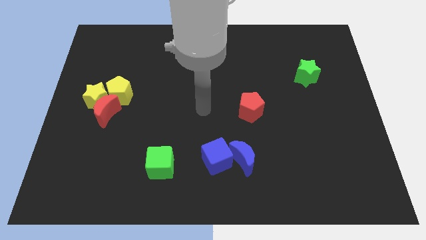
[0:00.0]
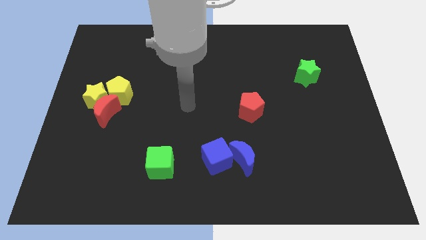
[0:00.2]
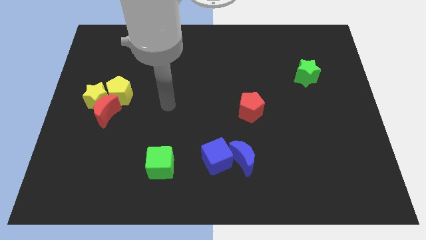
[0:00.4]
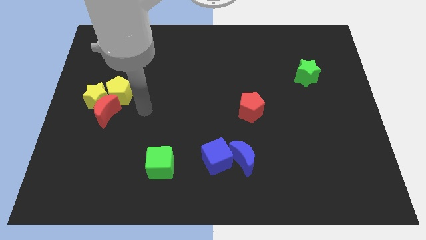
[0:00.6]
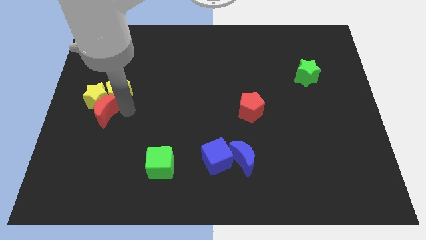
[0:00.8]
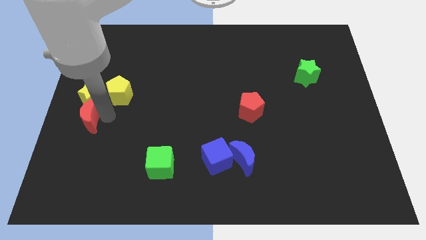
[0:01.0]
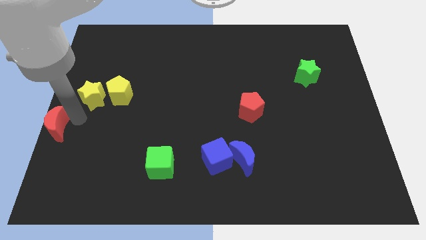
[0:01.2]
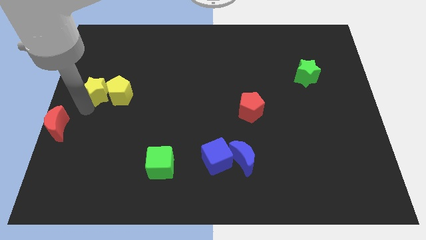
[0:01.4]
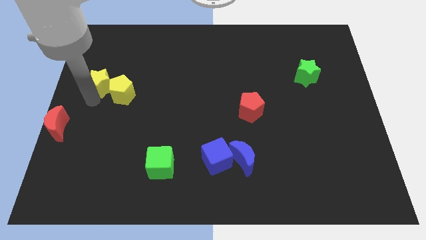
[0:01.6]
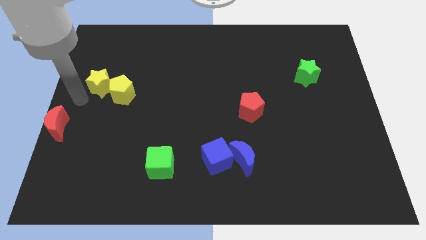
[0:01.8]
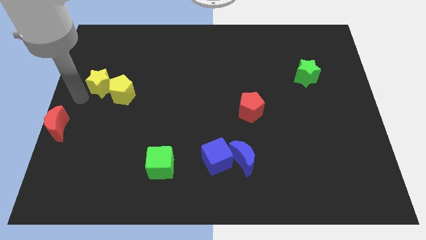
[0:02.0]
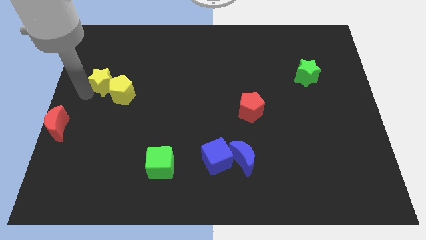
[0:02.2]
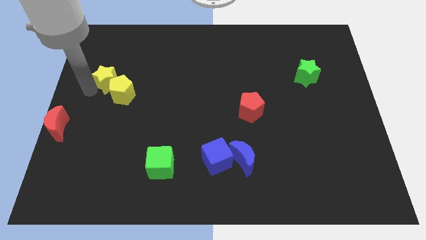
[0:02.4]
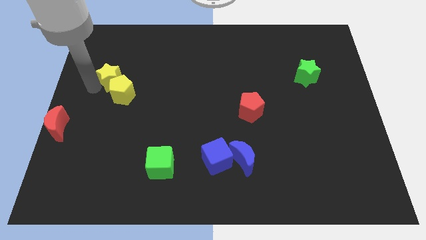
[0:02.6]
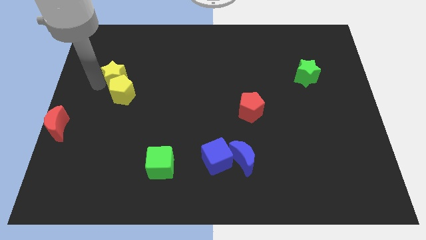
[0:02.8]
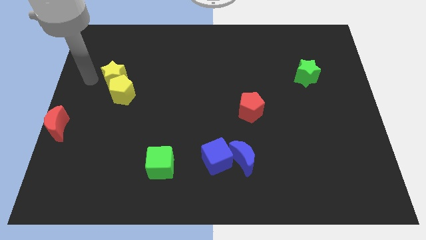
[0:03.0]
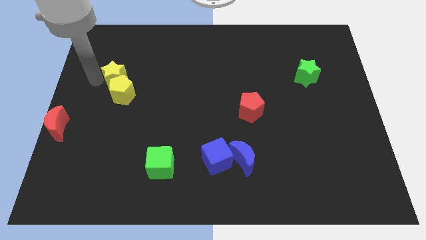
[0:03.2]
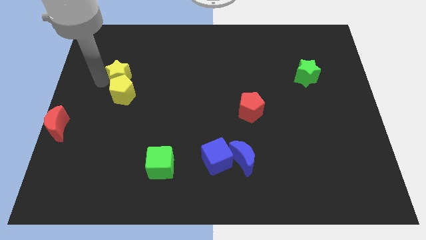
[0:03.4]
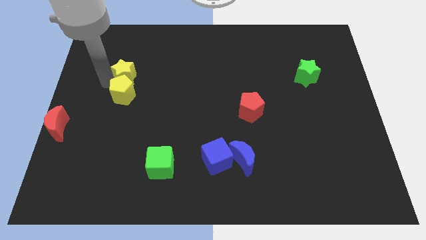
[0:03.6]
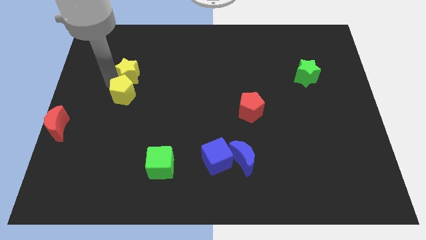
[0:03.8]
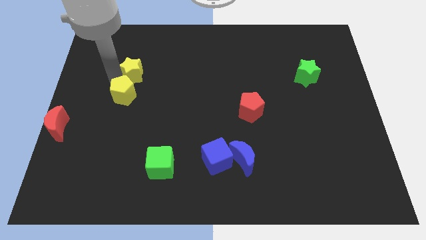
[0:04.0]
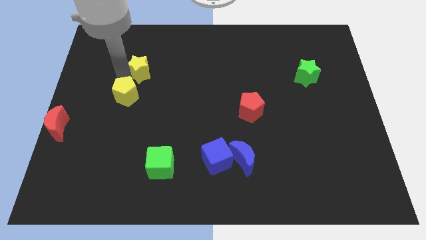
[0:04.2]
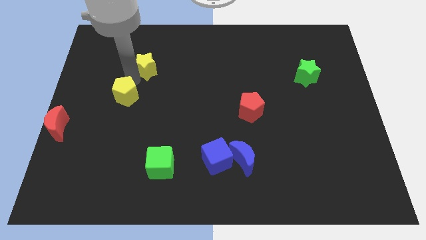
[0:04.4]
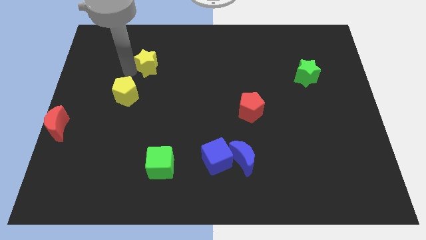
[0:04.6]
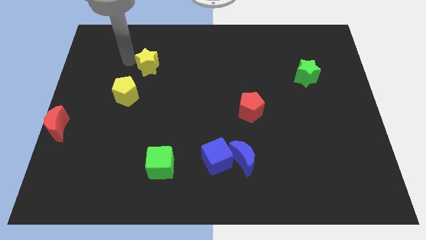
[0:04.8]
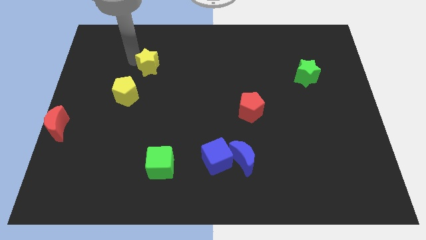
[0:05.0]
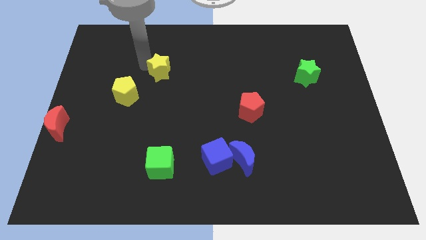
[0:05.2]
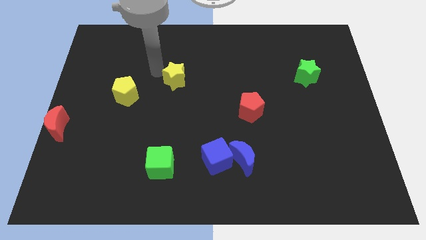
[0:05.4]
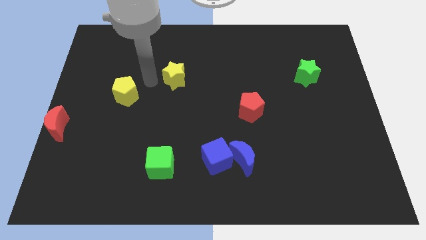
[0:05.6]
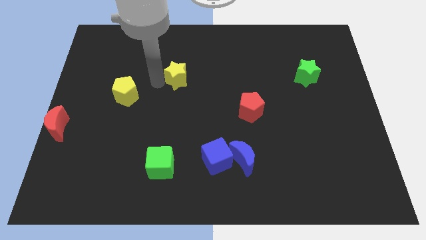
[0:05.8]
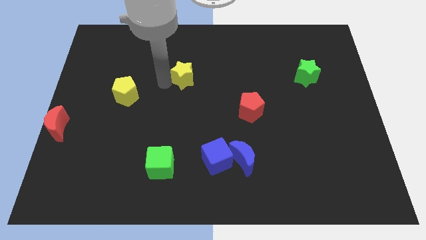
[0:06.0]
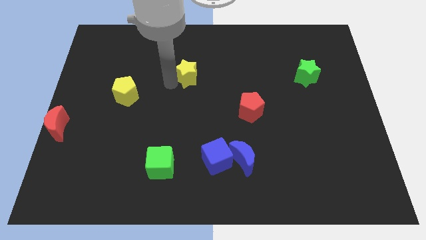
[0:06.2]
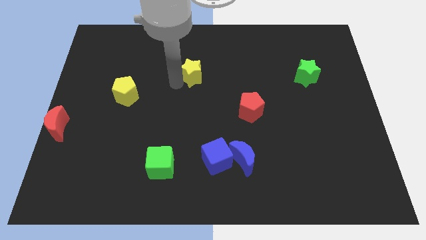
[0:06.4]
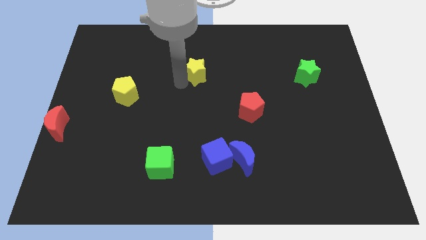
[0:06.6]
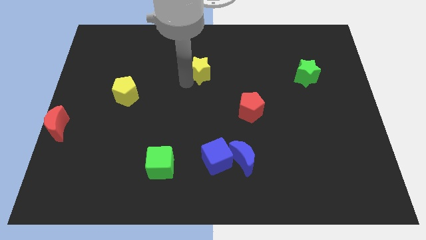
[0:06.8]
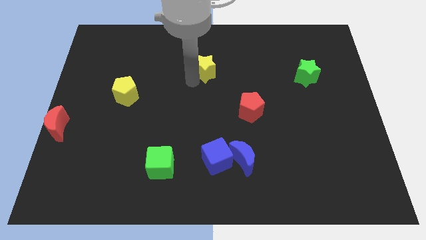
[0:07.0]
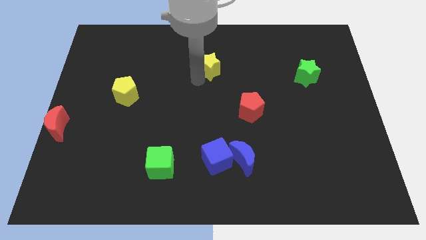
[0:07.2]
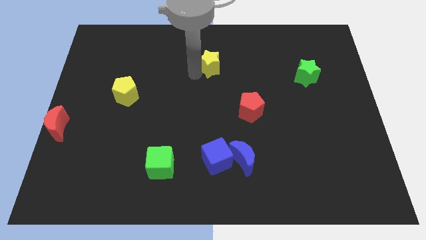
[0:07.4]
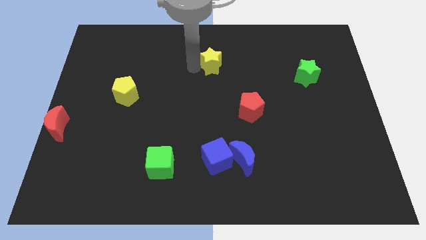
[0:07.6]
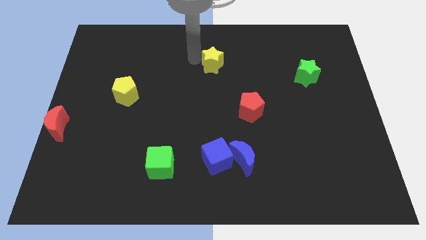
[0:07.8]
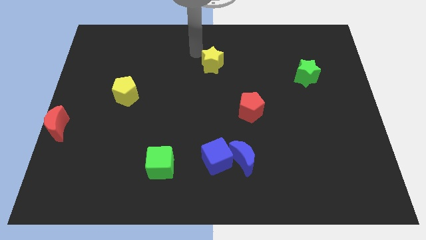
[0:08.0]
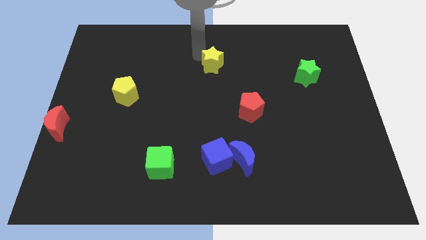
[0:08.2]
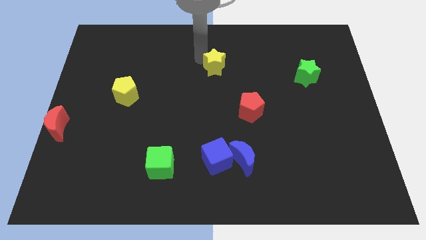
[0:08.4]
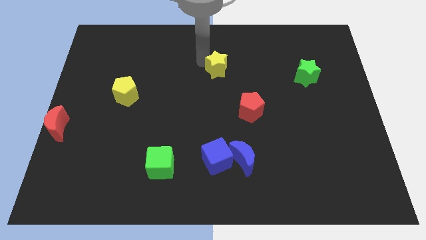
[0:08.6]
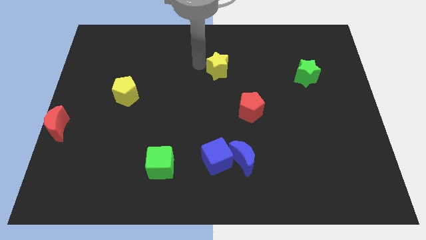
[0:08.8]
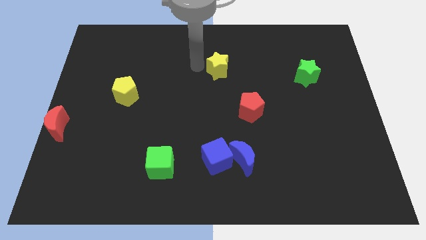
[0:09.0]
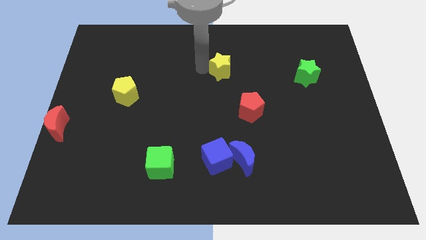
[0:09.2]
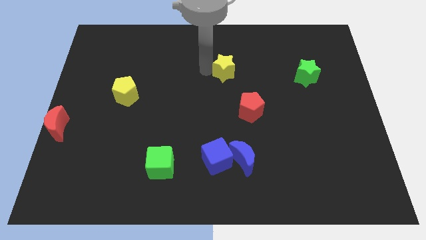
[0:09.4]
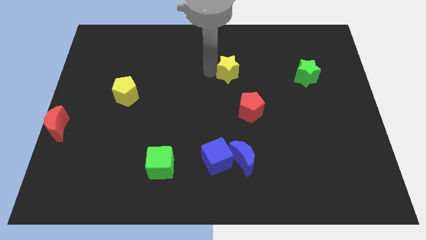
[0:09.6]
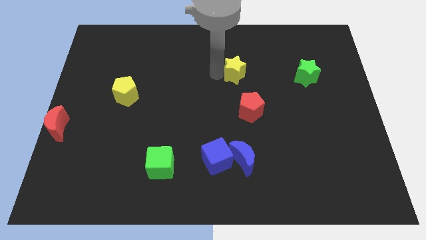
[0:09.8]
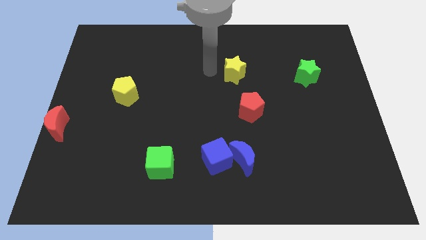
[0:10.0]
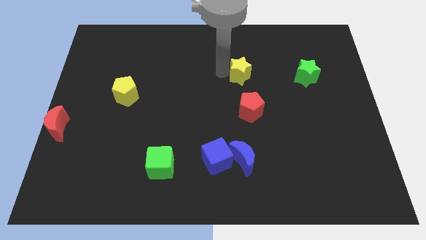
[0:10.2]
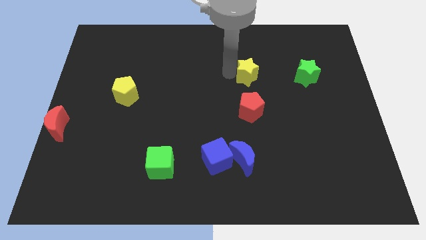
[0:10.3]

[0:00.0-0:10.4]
put the yellow star just left of the green star

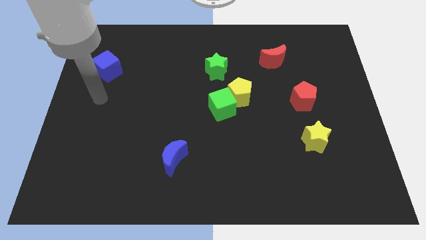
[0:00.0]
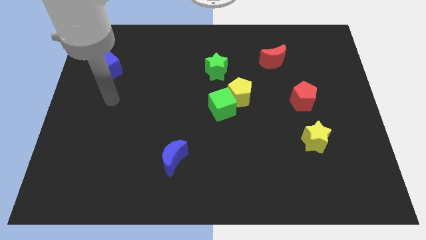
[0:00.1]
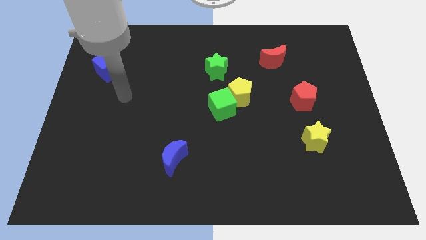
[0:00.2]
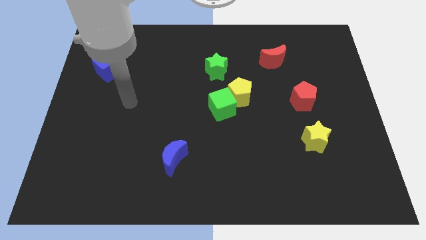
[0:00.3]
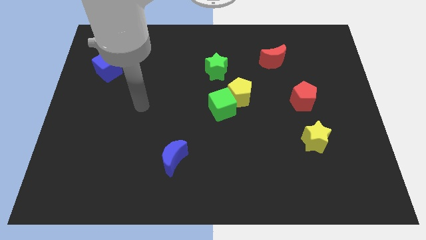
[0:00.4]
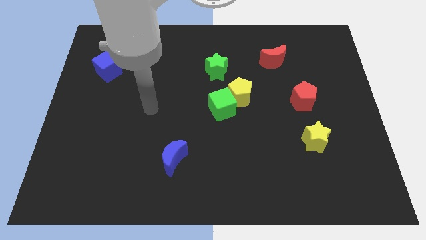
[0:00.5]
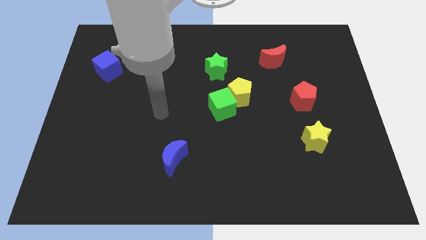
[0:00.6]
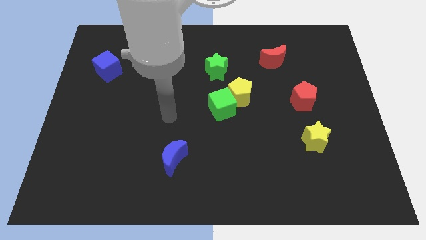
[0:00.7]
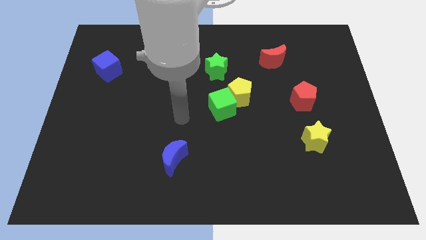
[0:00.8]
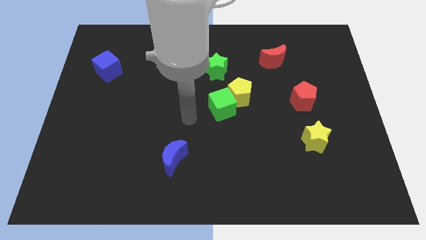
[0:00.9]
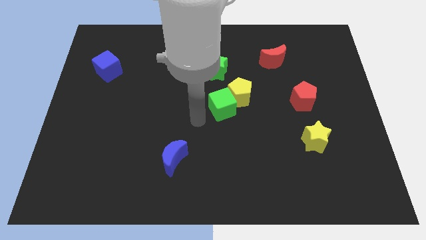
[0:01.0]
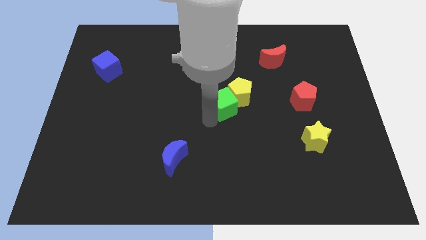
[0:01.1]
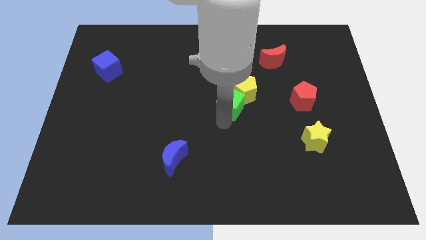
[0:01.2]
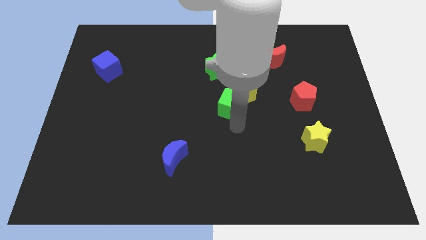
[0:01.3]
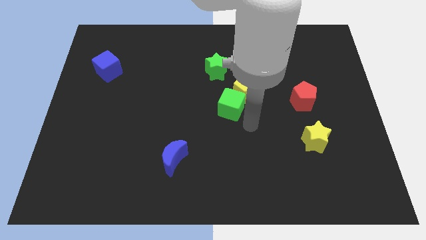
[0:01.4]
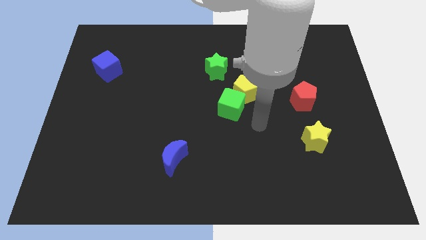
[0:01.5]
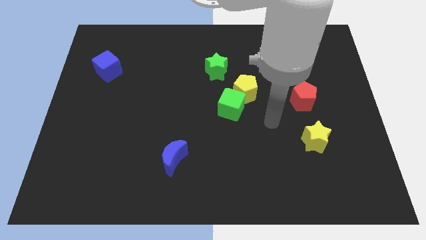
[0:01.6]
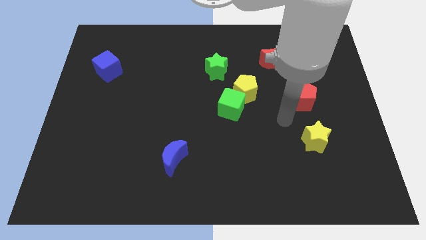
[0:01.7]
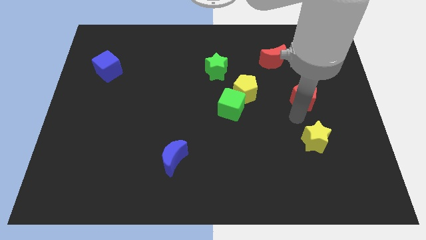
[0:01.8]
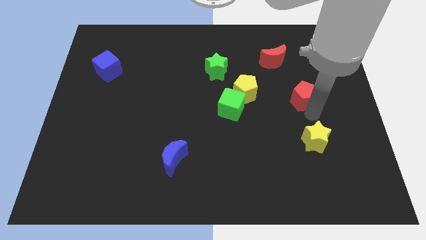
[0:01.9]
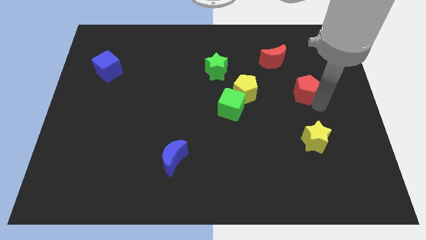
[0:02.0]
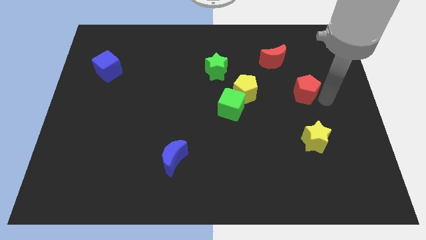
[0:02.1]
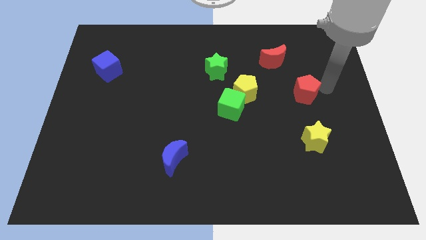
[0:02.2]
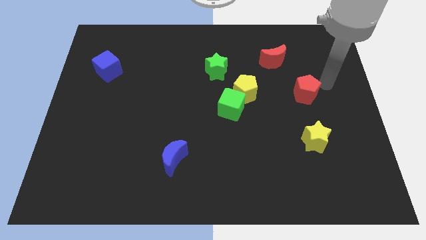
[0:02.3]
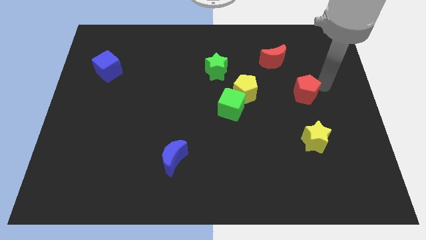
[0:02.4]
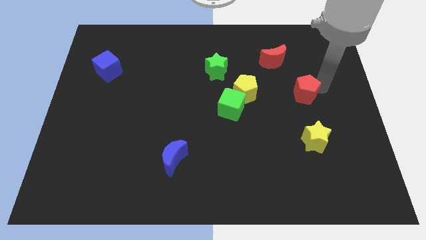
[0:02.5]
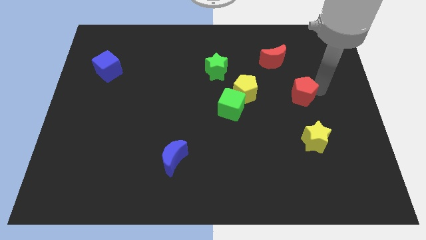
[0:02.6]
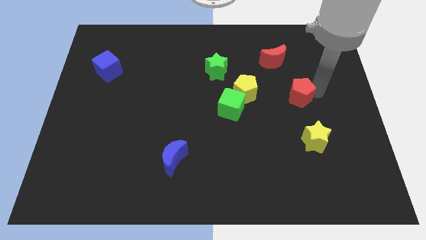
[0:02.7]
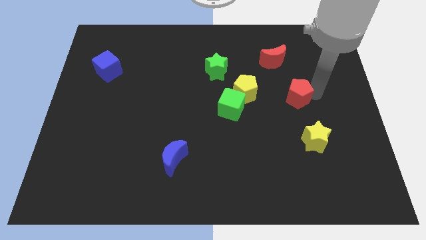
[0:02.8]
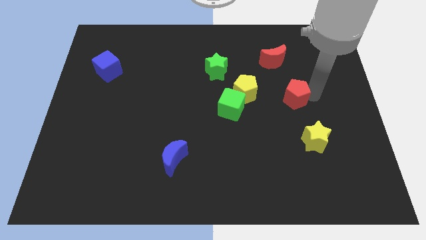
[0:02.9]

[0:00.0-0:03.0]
put the red pentagon right of the green cube
